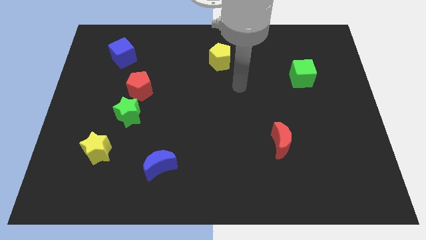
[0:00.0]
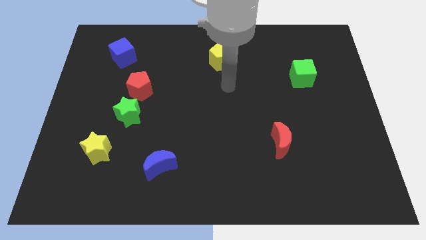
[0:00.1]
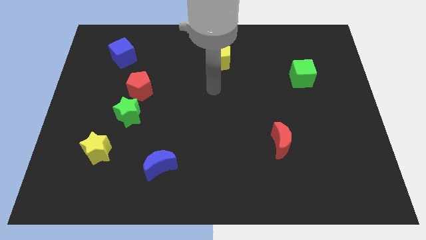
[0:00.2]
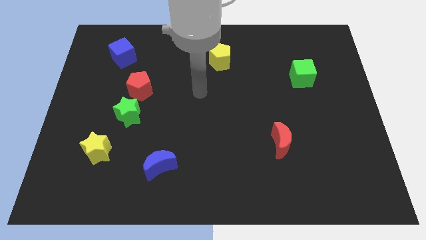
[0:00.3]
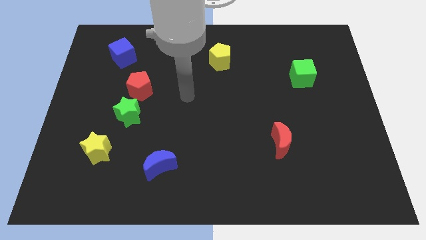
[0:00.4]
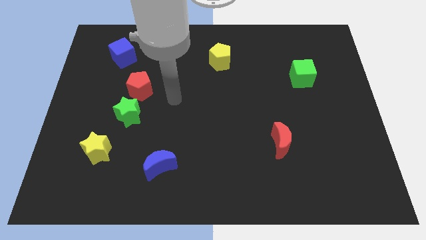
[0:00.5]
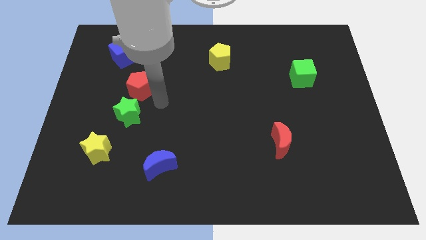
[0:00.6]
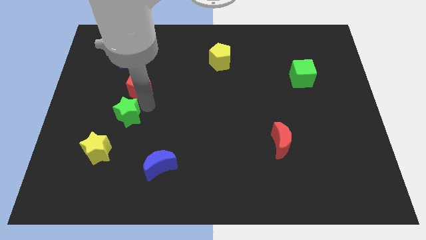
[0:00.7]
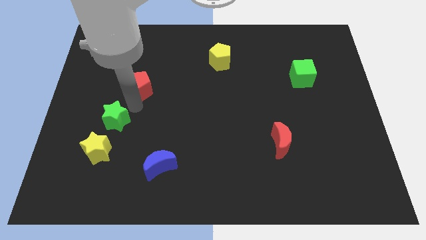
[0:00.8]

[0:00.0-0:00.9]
move the red pentagon away from the green star

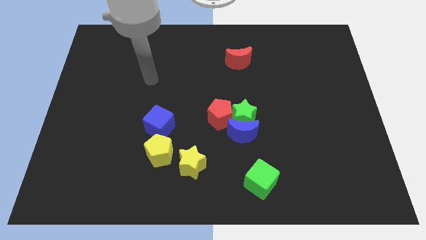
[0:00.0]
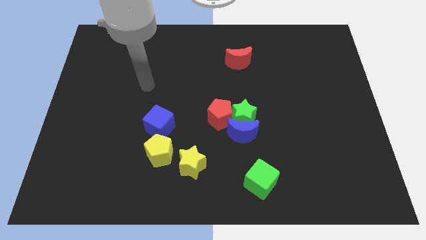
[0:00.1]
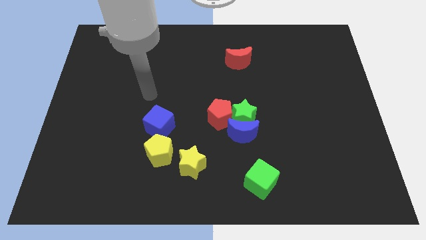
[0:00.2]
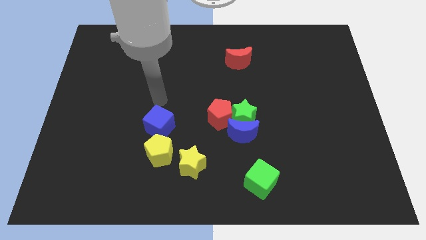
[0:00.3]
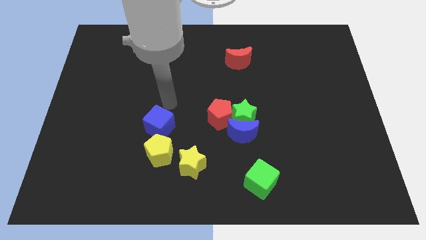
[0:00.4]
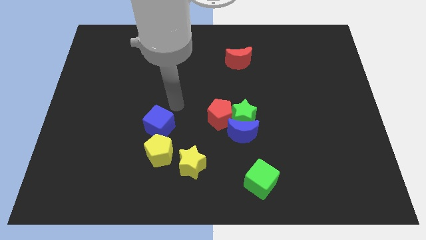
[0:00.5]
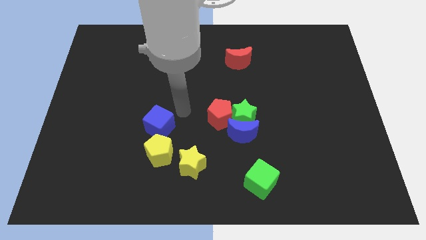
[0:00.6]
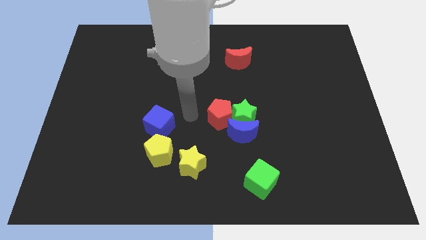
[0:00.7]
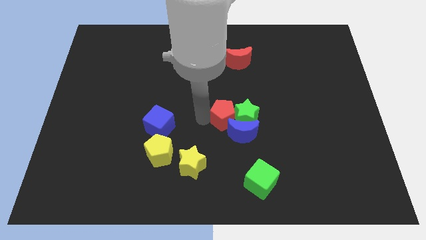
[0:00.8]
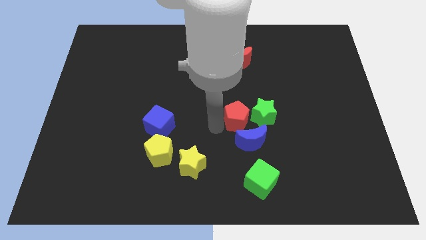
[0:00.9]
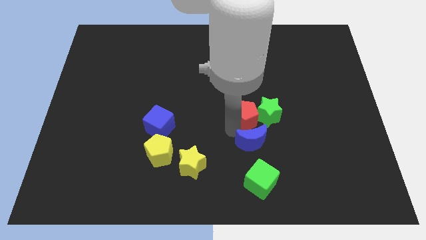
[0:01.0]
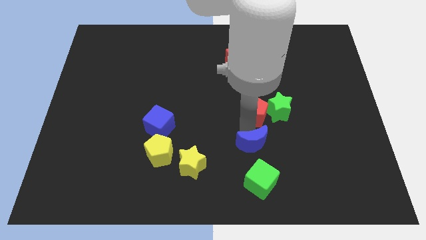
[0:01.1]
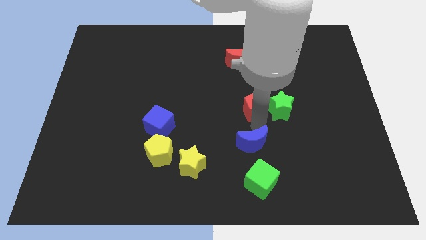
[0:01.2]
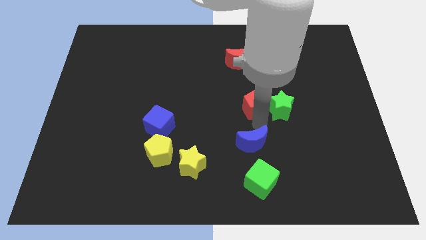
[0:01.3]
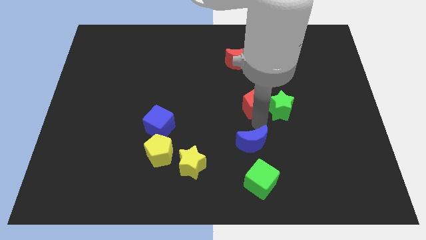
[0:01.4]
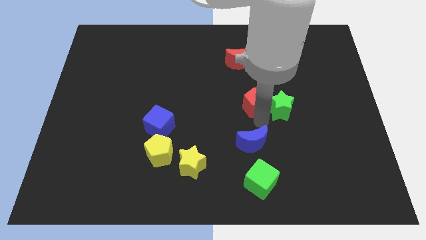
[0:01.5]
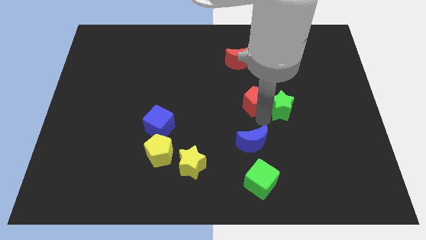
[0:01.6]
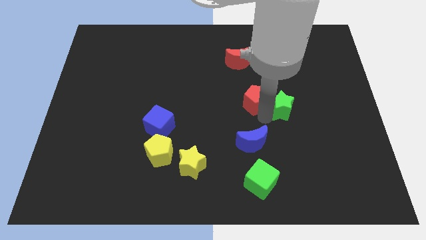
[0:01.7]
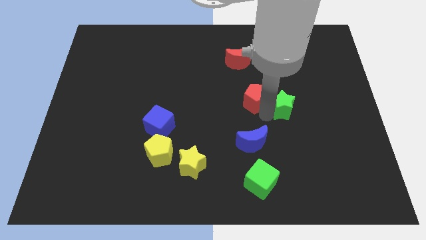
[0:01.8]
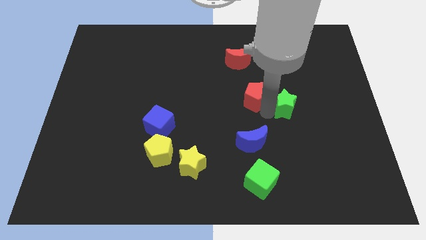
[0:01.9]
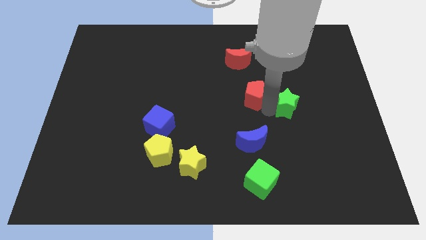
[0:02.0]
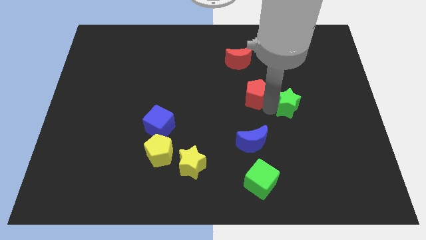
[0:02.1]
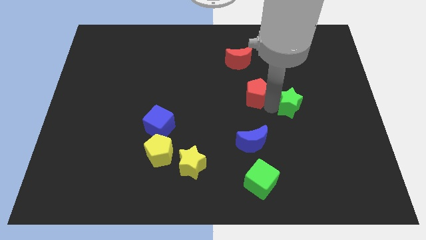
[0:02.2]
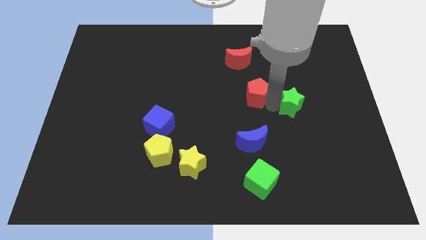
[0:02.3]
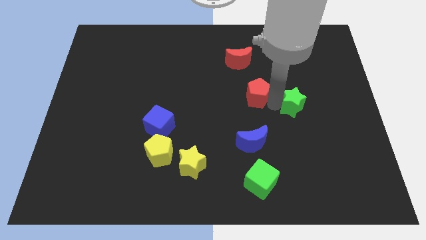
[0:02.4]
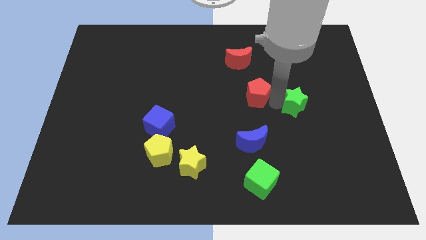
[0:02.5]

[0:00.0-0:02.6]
pull the green star apart from the blue moon and red pentagon

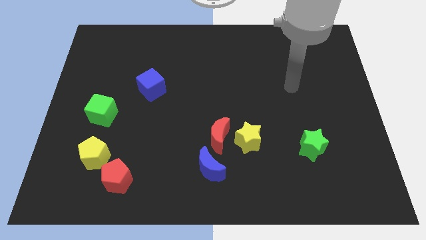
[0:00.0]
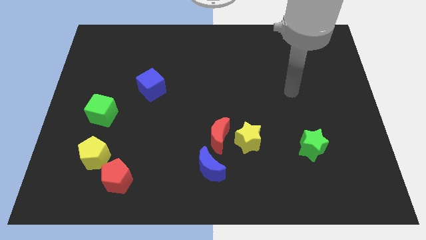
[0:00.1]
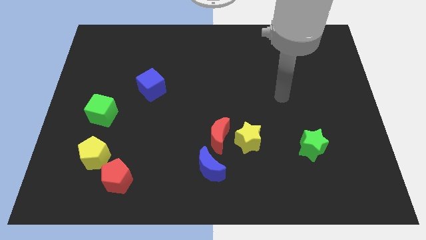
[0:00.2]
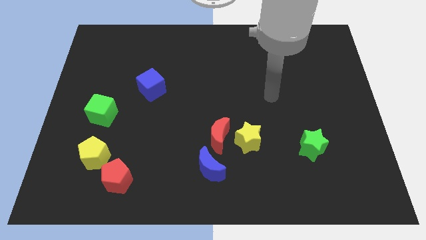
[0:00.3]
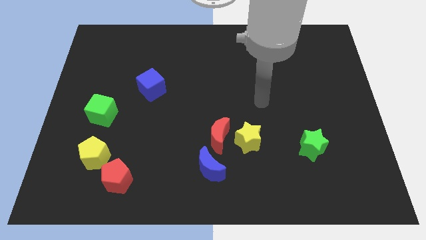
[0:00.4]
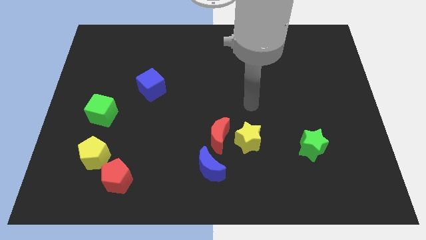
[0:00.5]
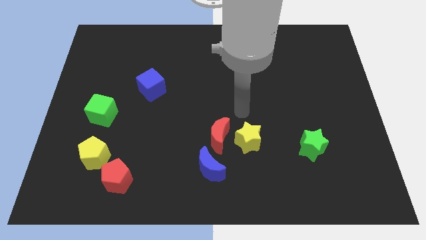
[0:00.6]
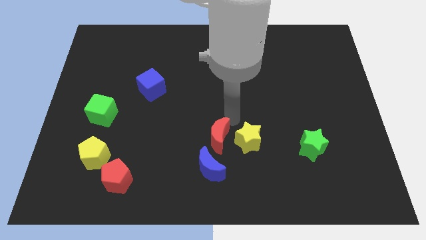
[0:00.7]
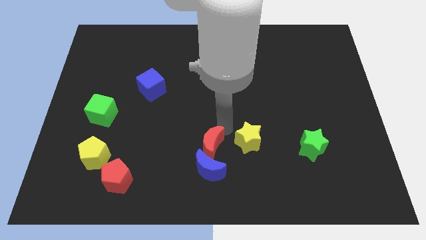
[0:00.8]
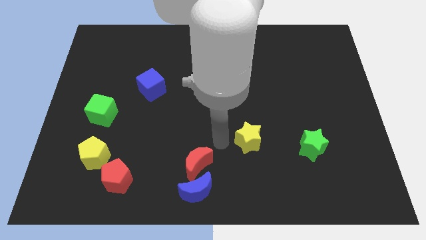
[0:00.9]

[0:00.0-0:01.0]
pull the yellow star apart from the red moon

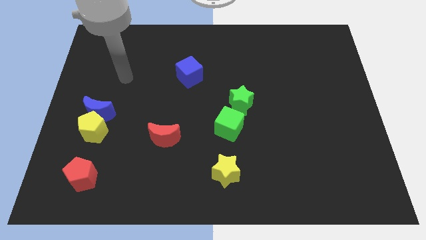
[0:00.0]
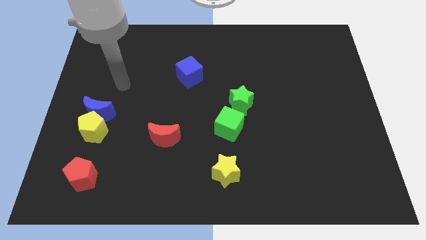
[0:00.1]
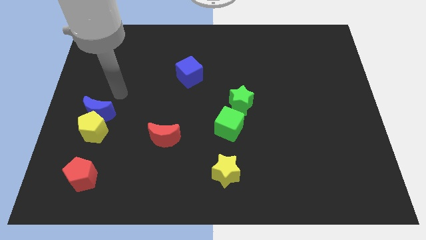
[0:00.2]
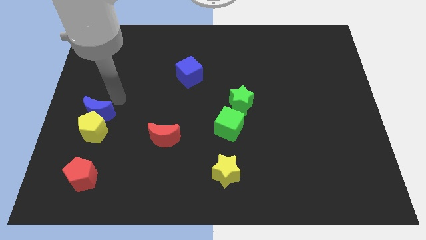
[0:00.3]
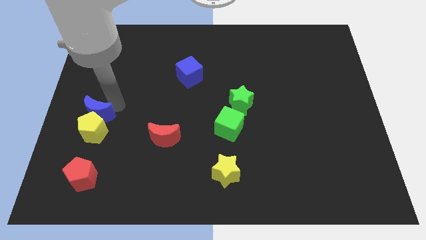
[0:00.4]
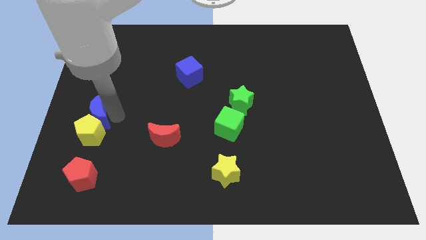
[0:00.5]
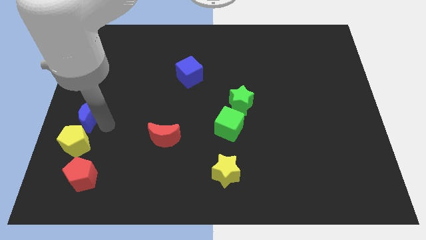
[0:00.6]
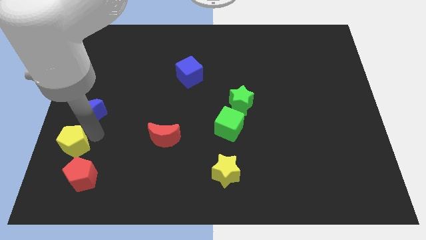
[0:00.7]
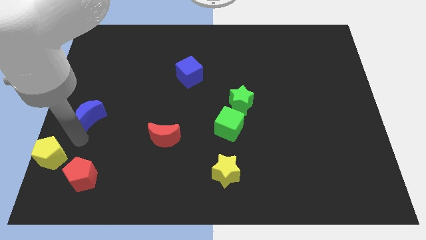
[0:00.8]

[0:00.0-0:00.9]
pull the blue moon apart from the yellow pentagon

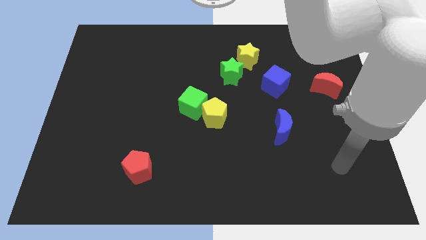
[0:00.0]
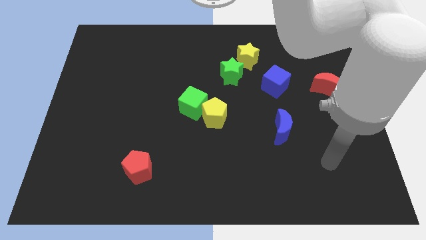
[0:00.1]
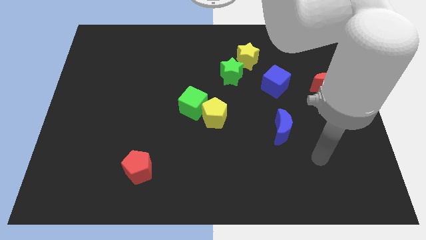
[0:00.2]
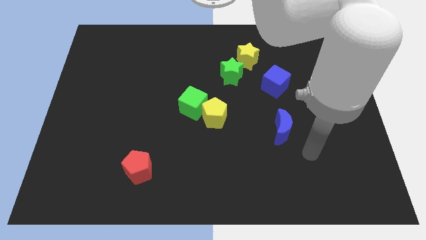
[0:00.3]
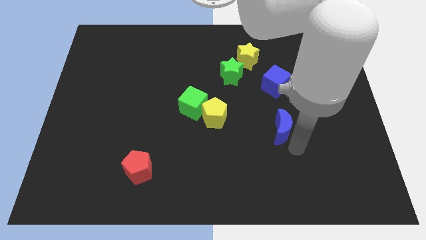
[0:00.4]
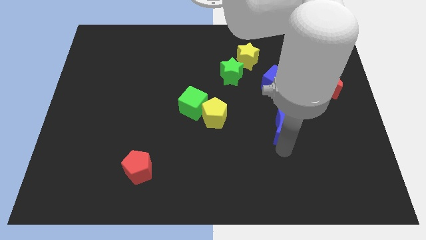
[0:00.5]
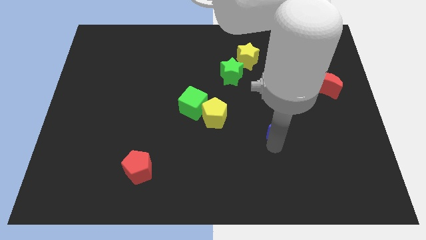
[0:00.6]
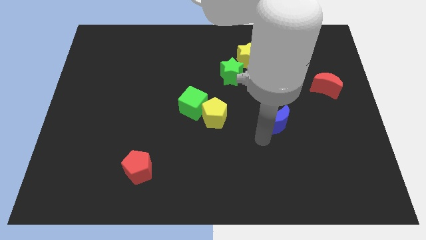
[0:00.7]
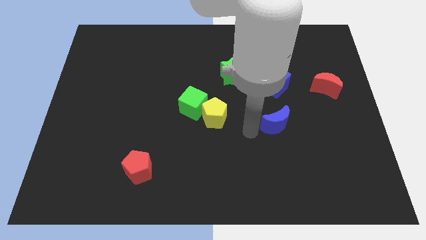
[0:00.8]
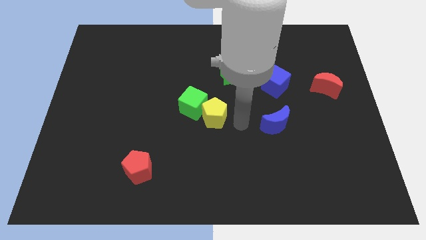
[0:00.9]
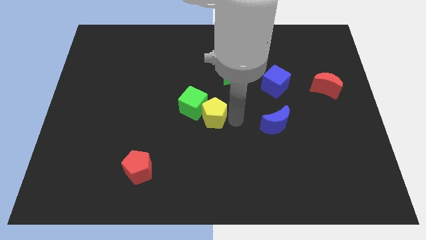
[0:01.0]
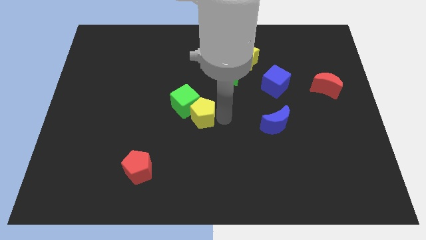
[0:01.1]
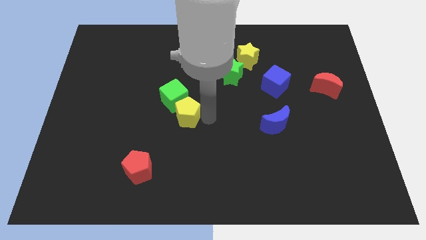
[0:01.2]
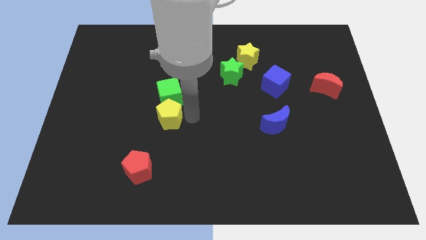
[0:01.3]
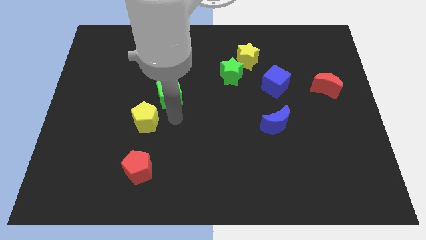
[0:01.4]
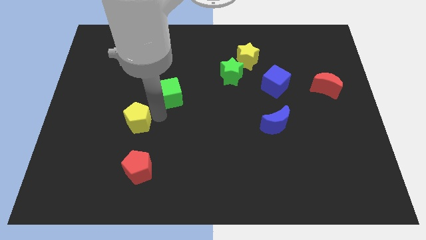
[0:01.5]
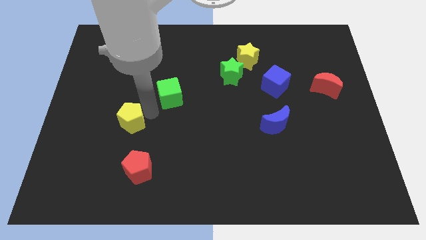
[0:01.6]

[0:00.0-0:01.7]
separate the green cube from the yellow pentagon

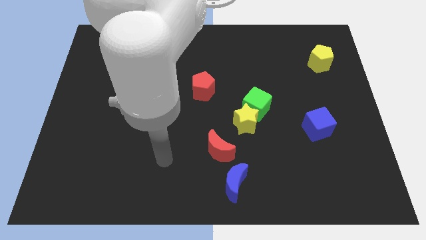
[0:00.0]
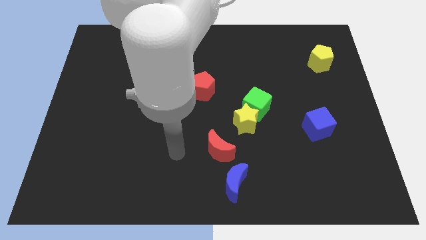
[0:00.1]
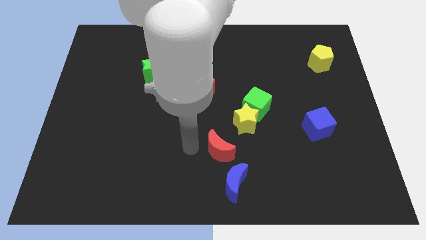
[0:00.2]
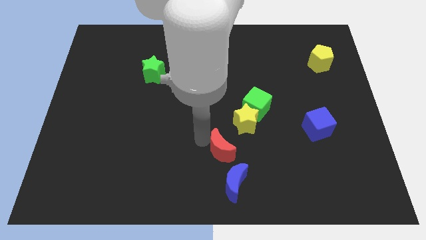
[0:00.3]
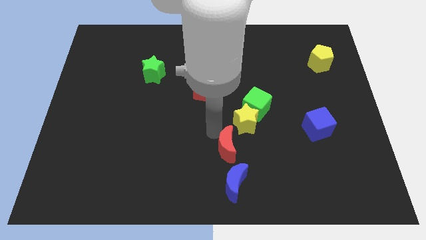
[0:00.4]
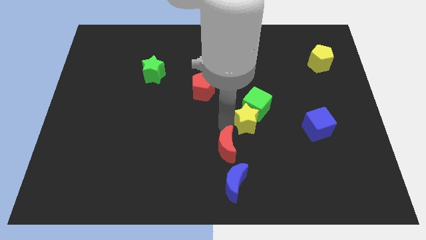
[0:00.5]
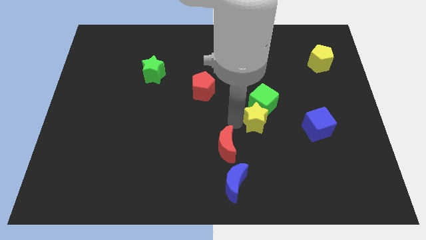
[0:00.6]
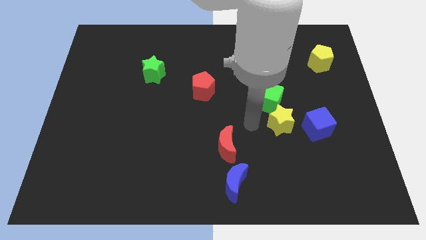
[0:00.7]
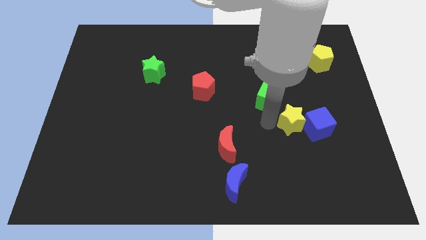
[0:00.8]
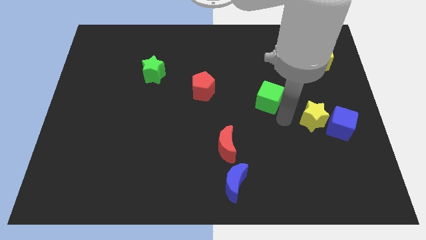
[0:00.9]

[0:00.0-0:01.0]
pull the green cube apart from the yellow star

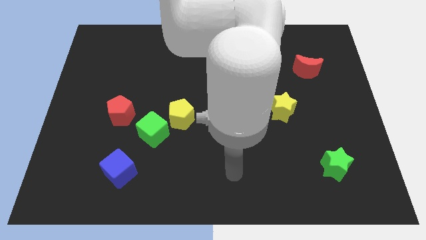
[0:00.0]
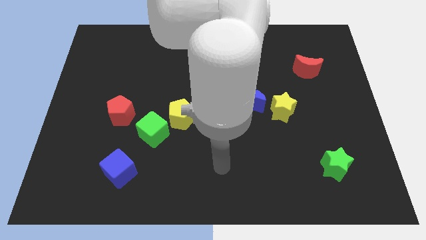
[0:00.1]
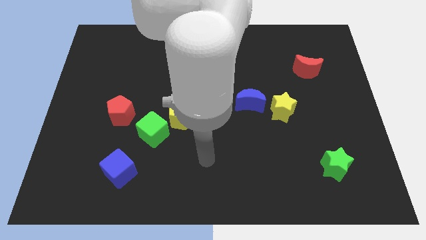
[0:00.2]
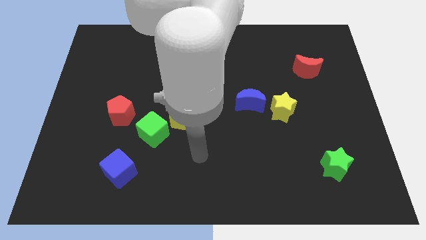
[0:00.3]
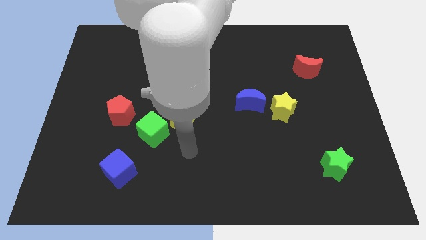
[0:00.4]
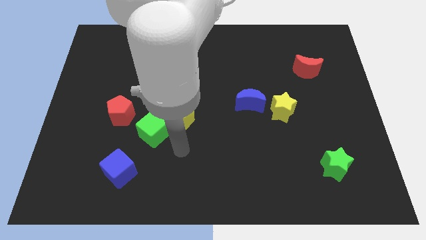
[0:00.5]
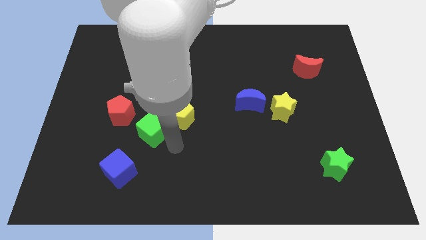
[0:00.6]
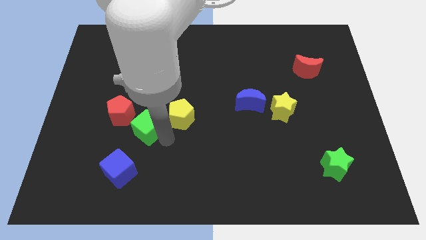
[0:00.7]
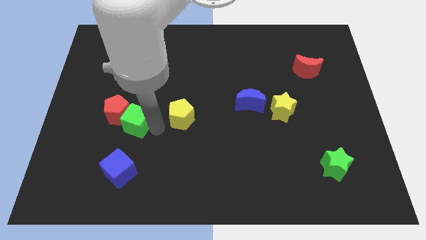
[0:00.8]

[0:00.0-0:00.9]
move the yellow pentagon away from the green cube

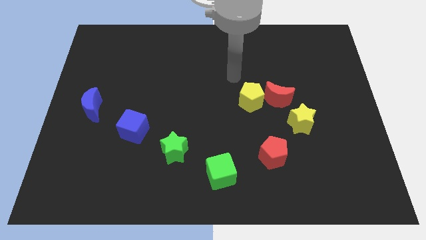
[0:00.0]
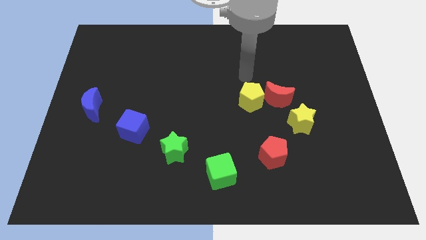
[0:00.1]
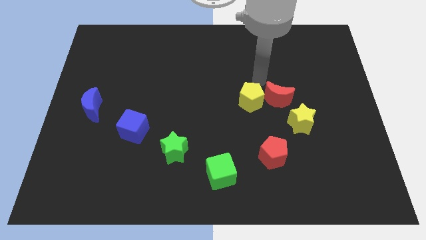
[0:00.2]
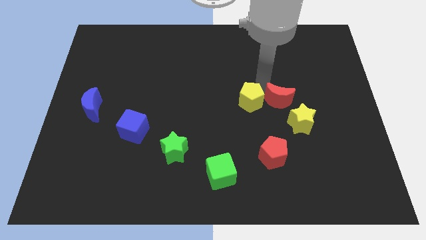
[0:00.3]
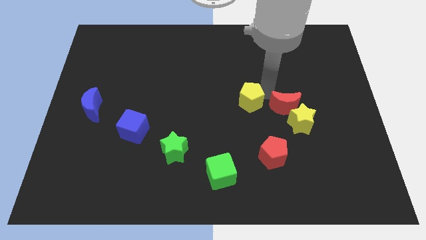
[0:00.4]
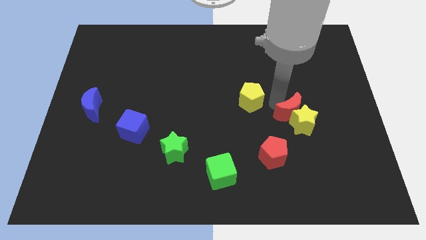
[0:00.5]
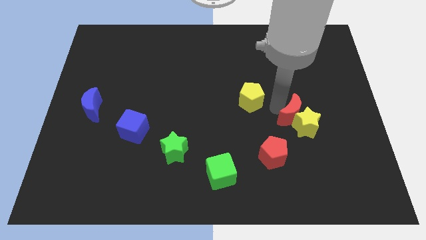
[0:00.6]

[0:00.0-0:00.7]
move the yellow pentagon away from the red moon
